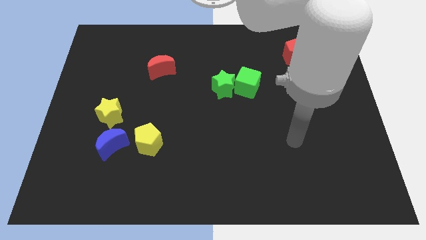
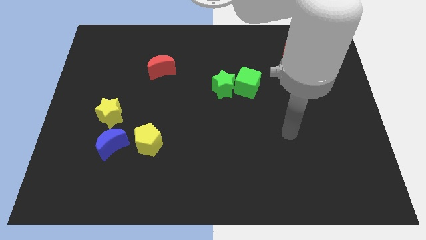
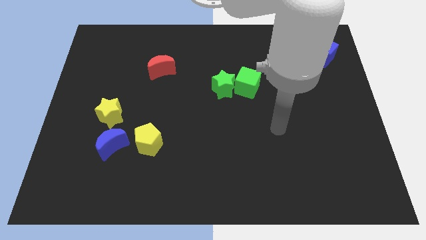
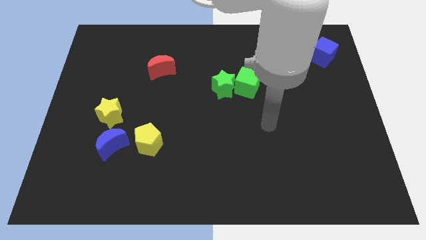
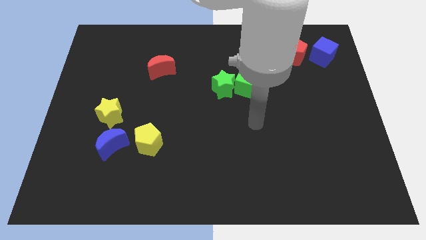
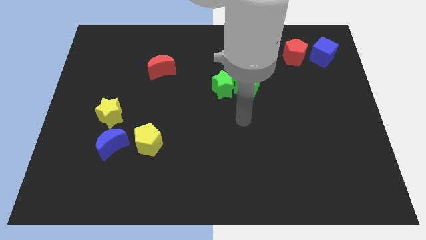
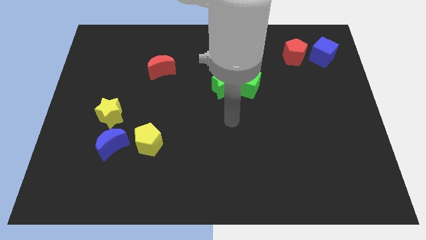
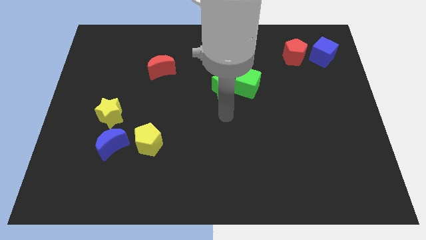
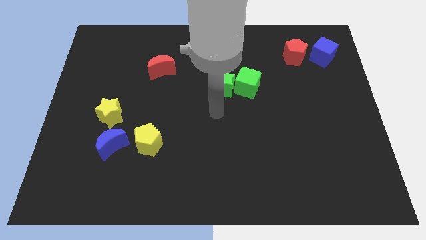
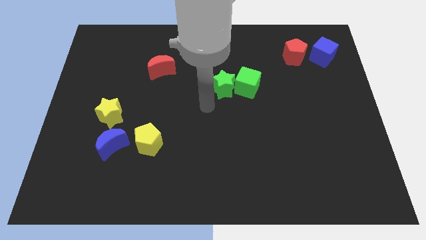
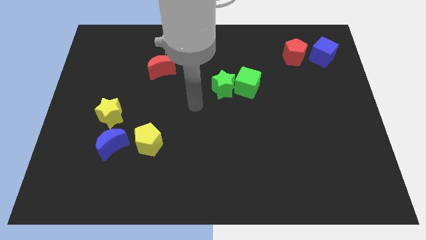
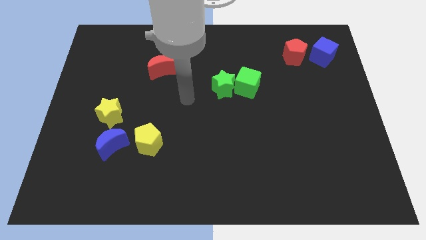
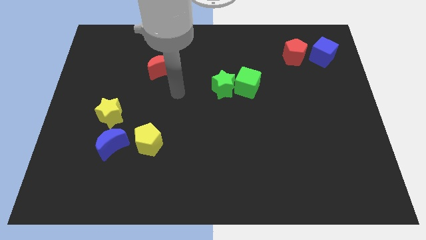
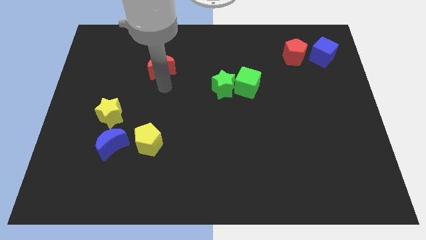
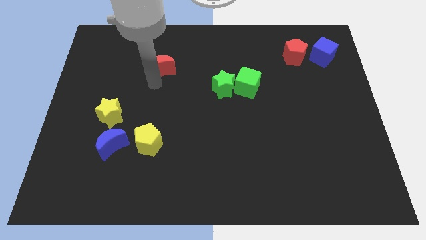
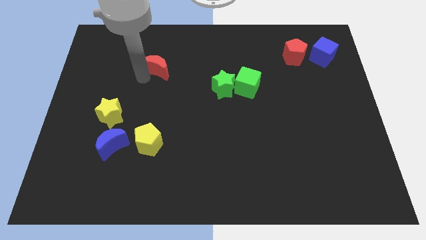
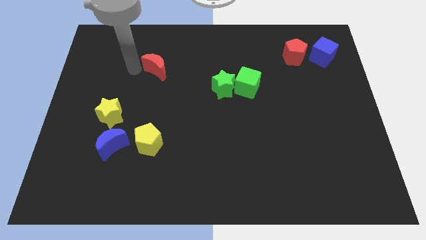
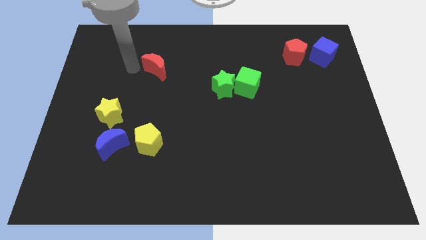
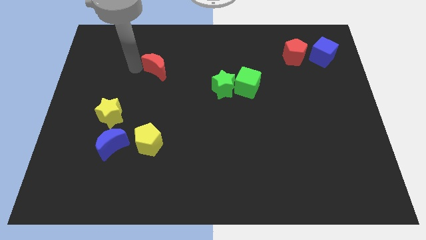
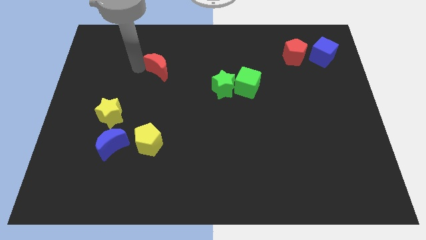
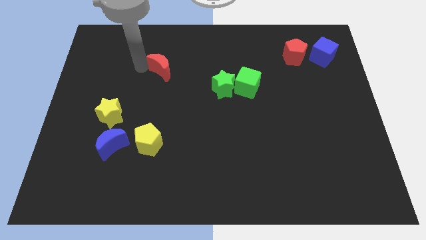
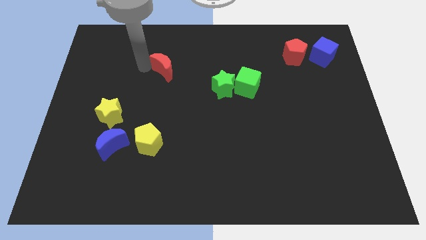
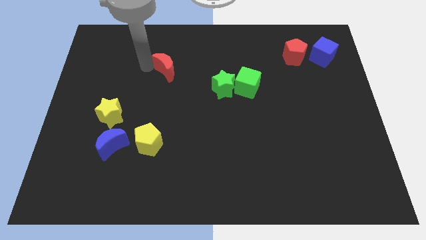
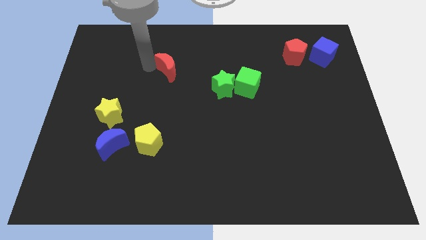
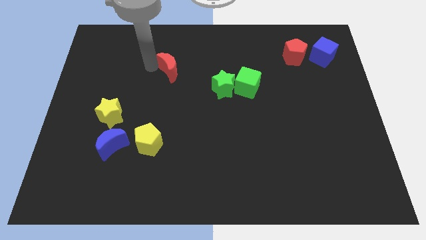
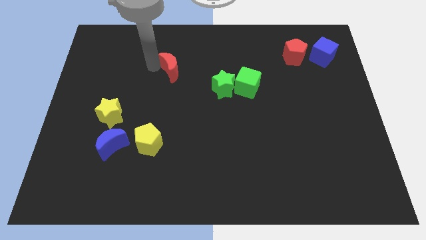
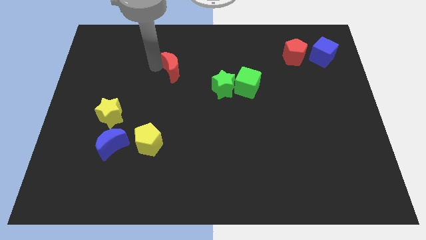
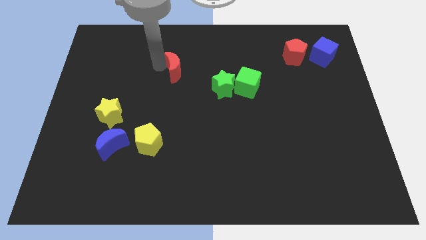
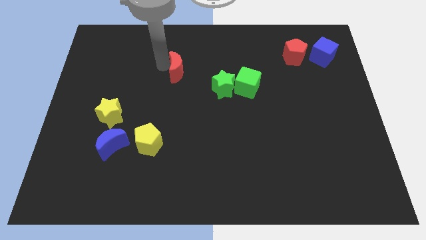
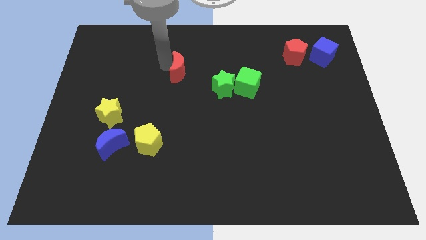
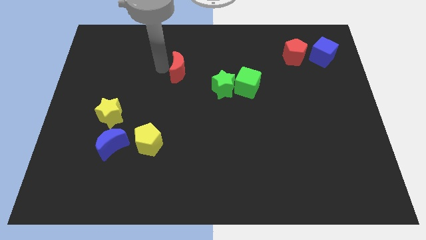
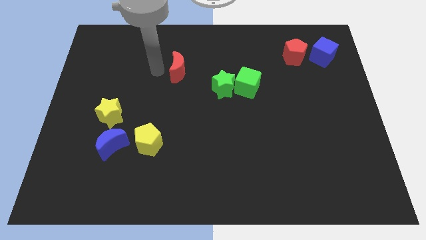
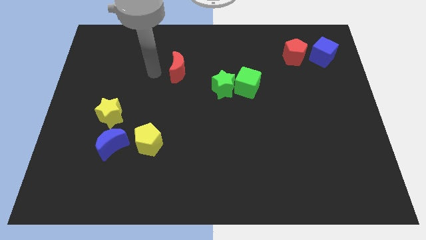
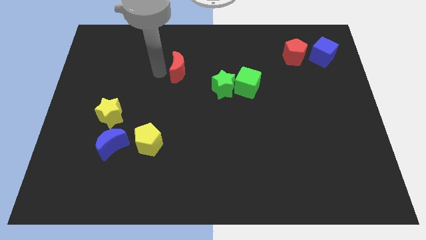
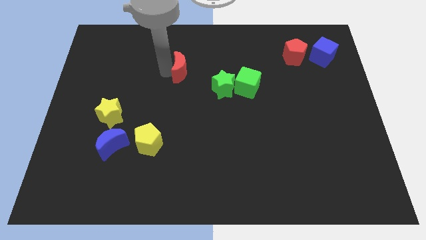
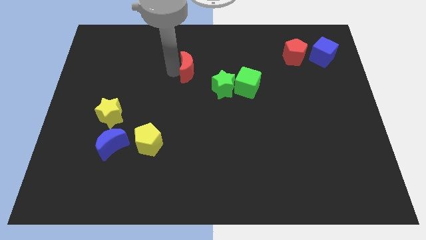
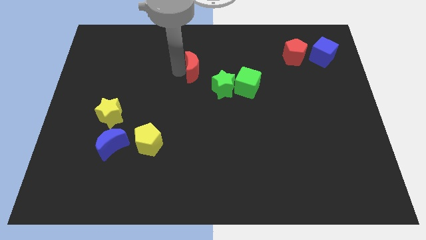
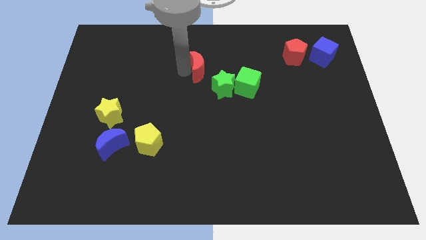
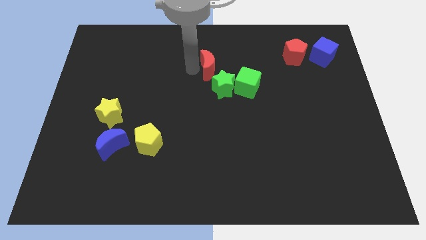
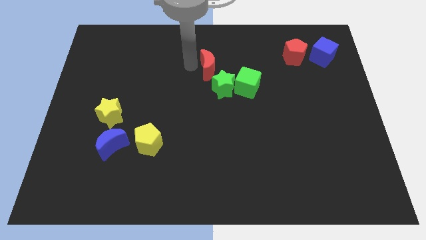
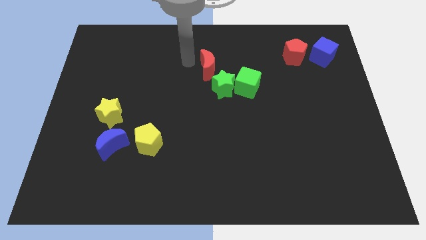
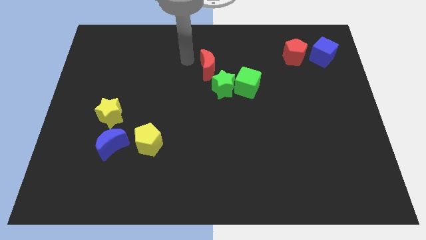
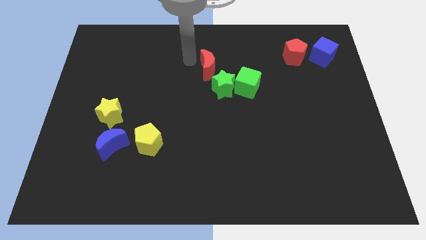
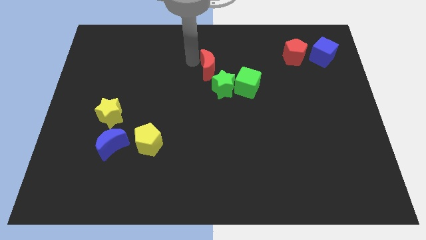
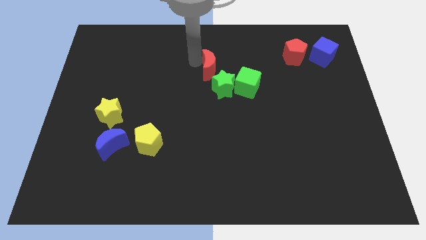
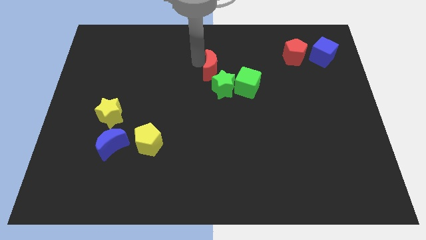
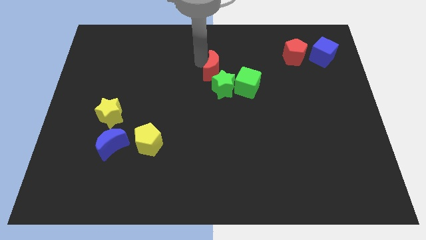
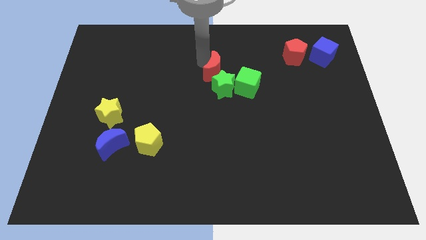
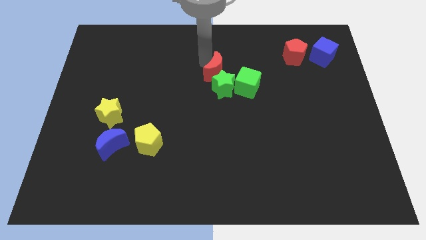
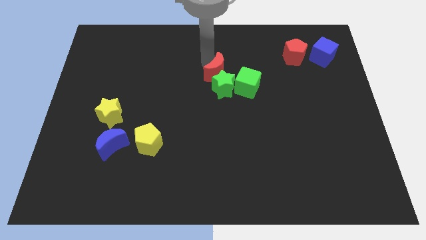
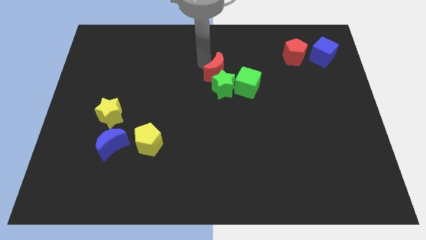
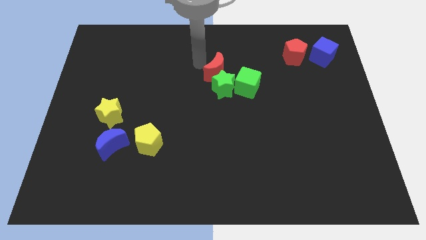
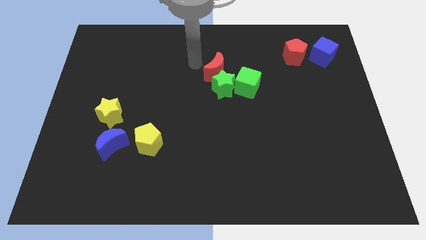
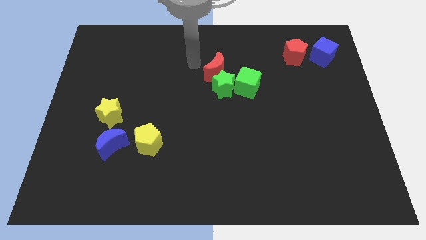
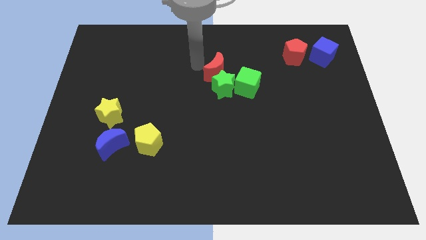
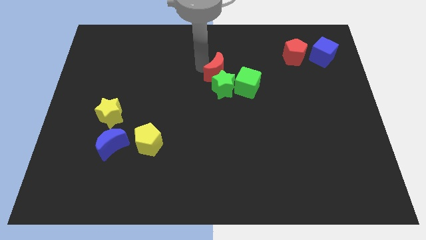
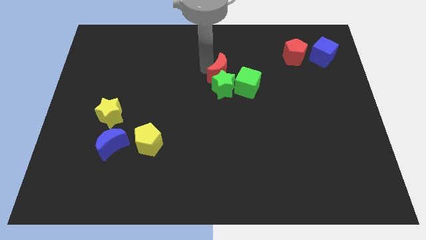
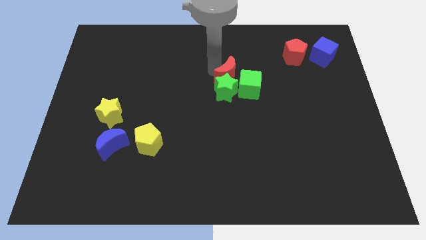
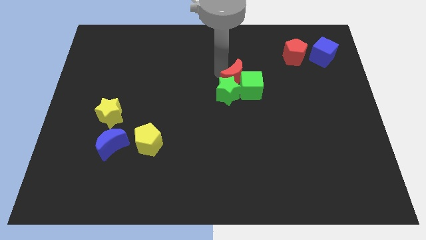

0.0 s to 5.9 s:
put the red moon towards the green cube

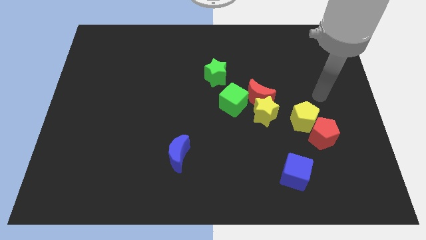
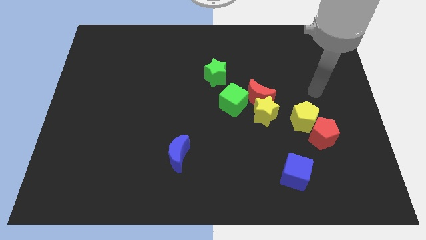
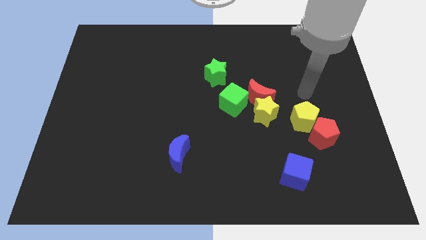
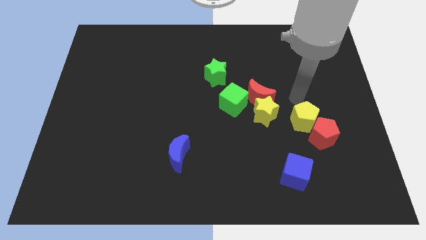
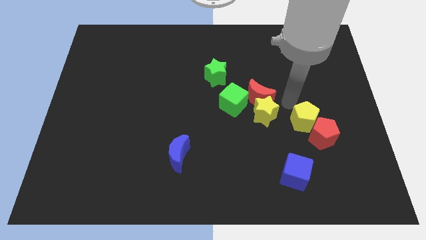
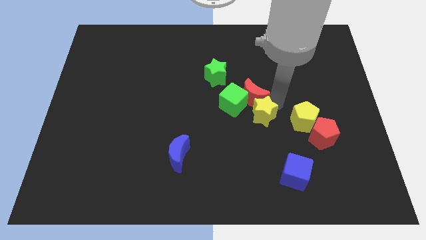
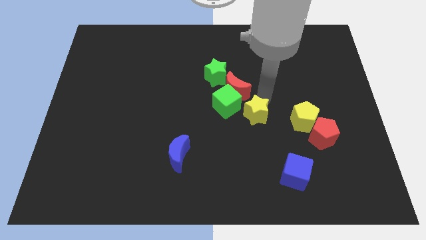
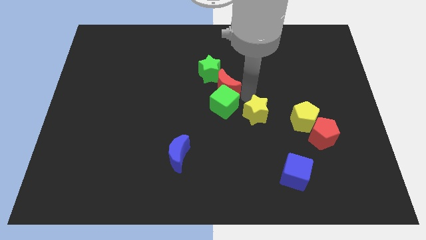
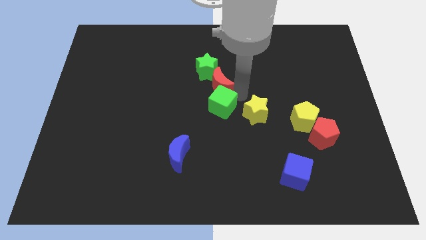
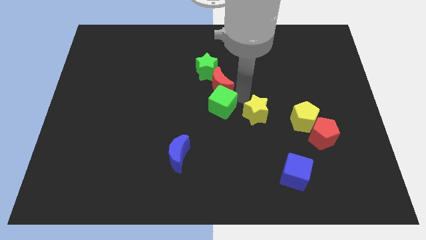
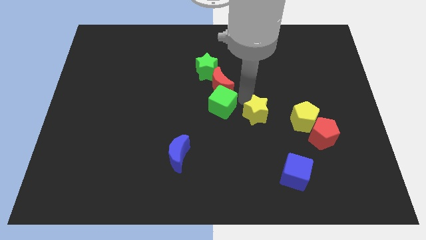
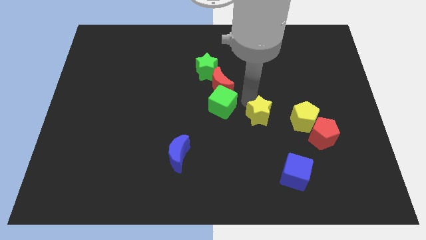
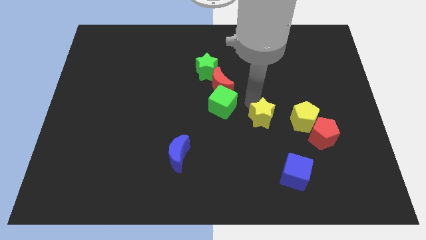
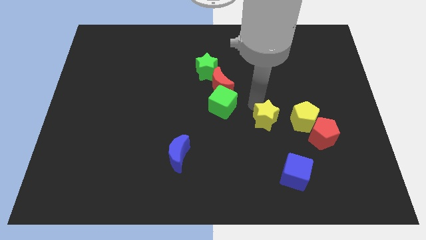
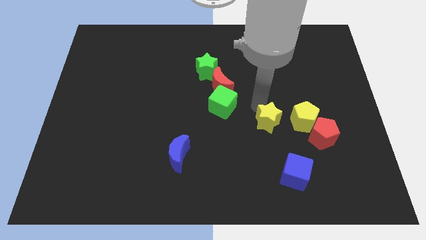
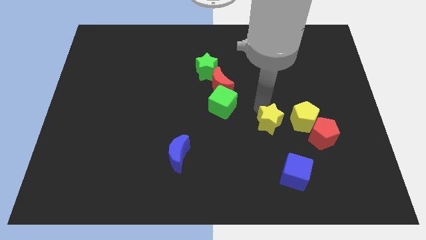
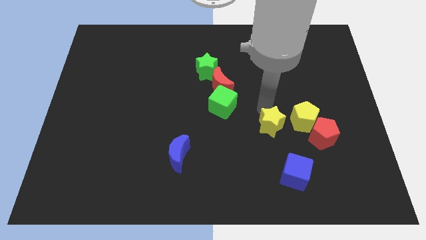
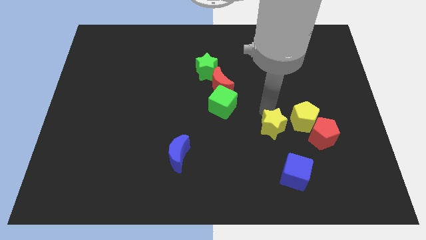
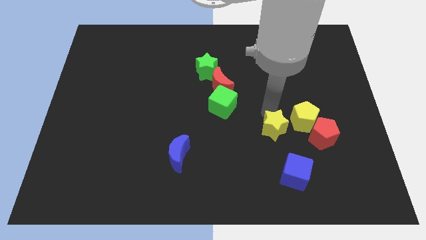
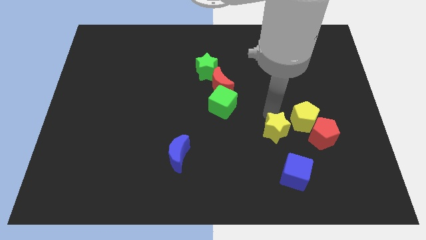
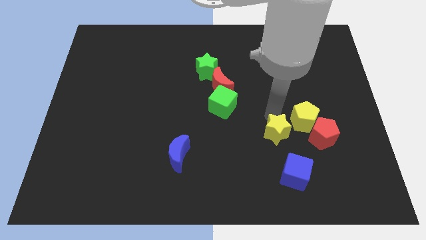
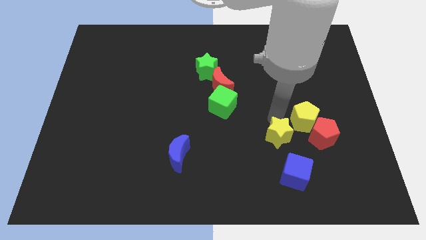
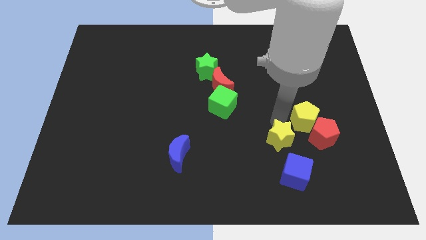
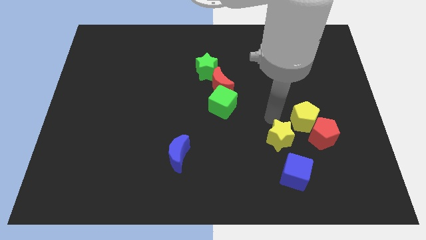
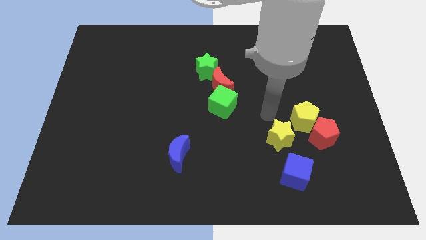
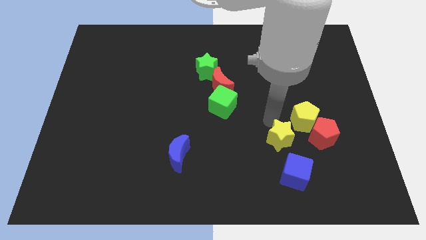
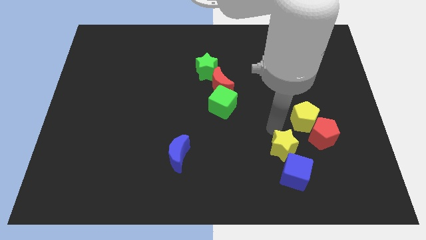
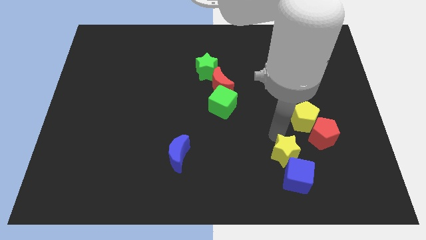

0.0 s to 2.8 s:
move the yellow star towards the blue cube
